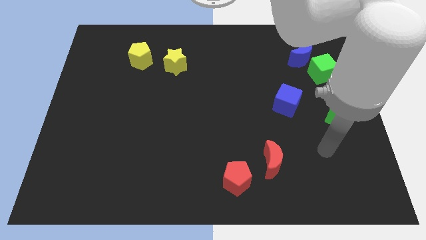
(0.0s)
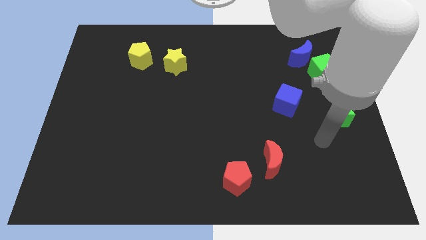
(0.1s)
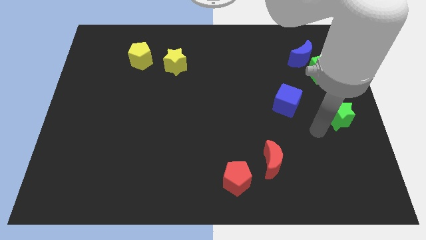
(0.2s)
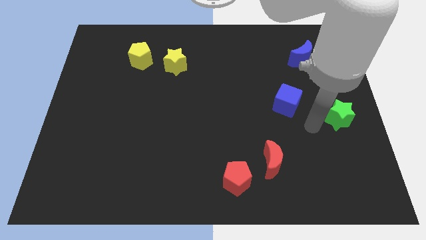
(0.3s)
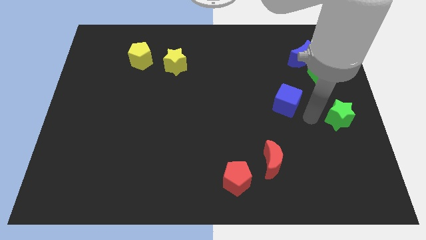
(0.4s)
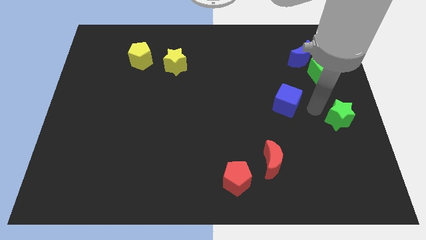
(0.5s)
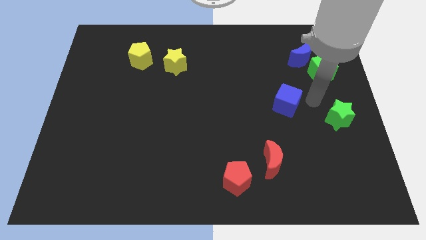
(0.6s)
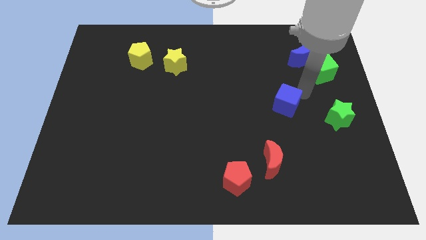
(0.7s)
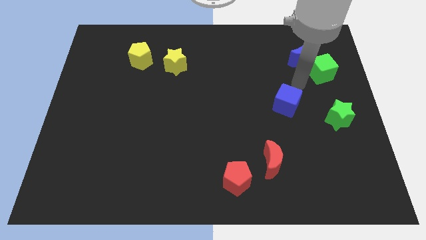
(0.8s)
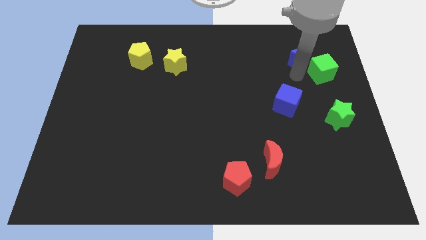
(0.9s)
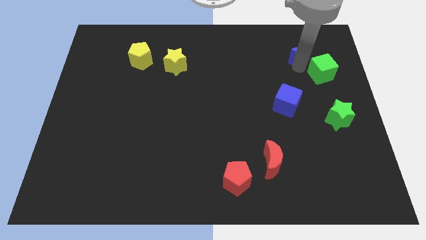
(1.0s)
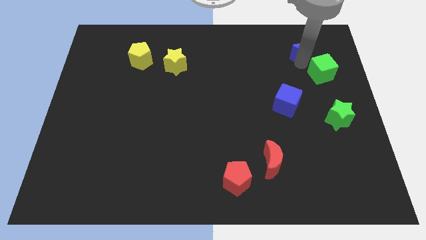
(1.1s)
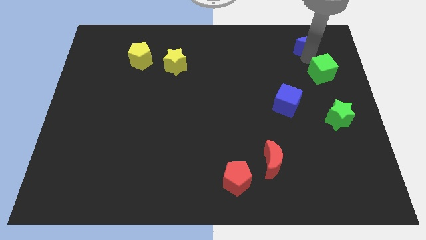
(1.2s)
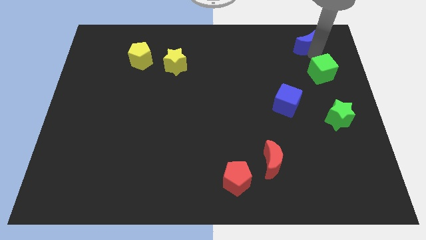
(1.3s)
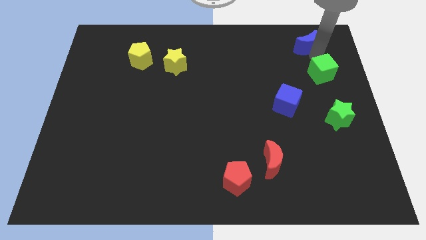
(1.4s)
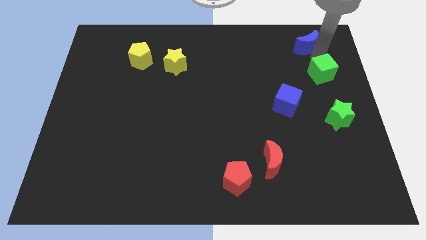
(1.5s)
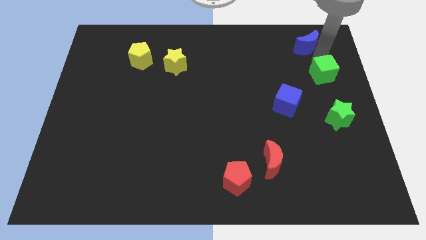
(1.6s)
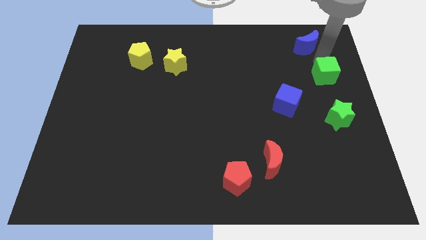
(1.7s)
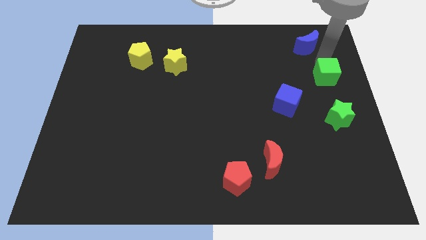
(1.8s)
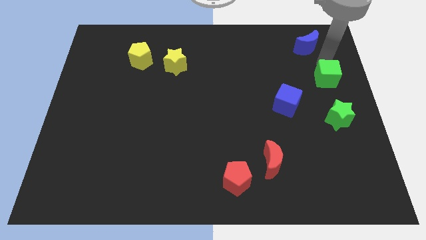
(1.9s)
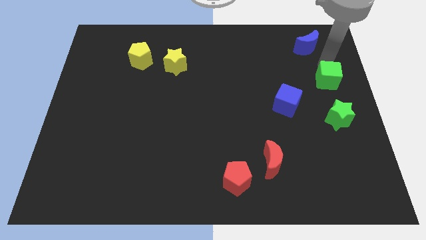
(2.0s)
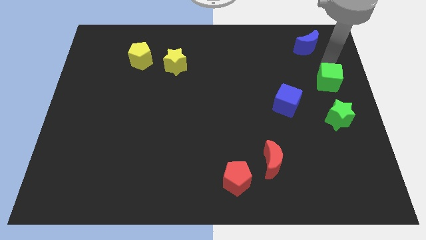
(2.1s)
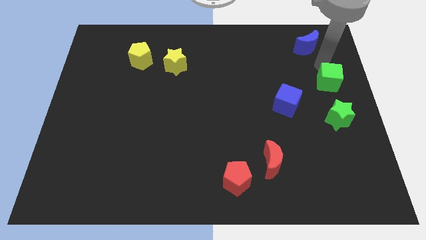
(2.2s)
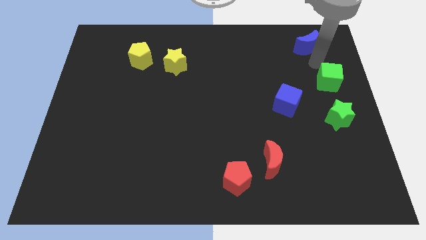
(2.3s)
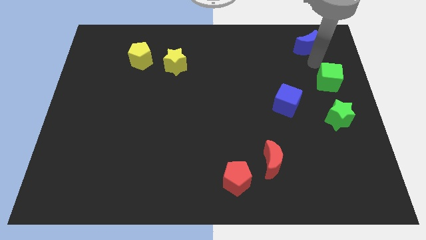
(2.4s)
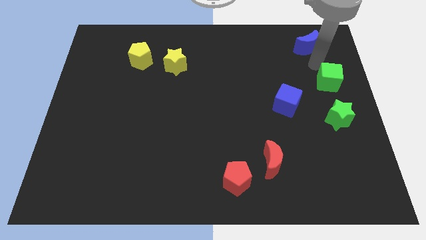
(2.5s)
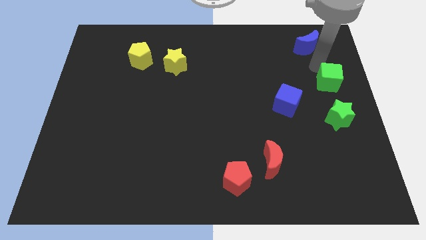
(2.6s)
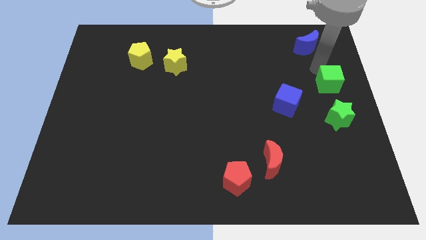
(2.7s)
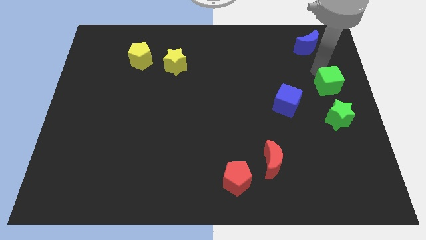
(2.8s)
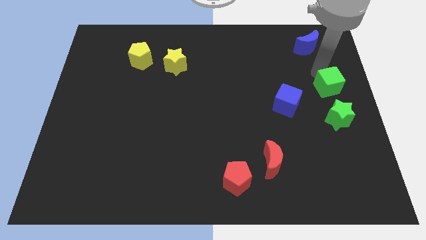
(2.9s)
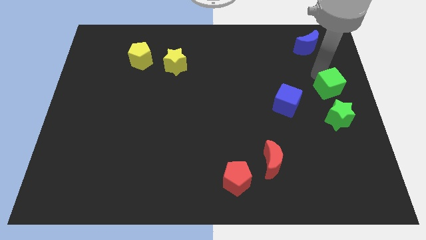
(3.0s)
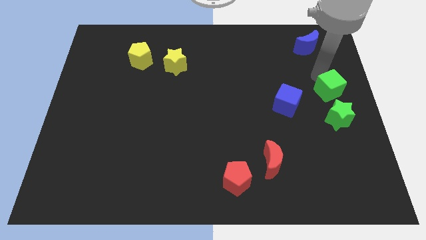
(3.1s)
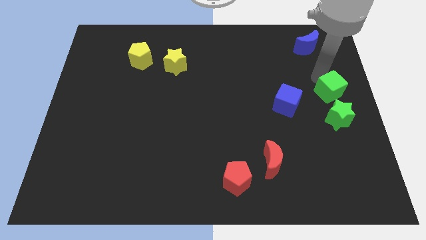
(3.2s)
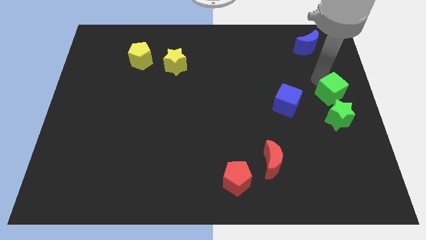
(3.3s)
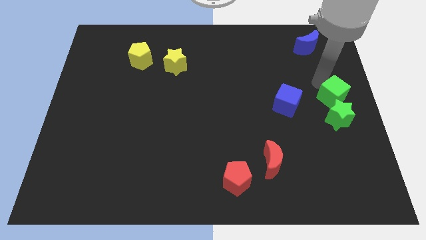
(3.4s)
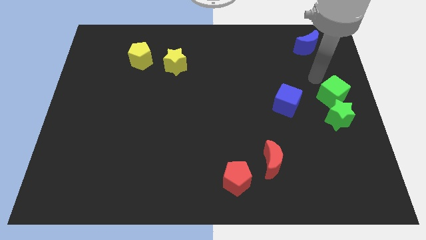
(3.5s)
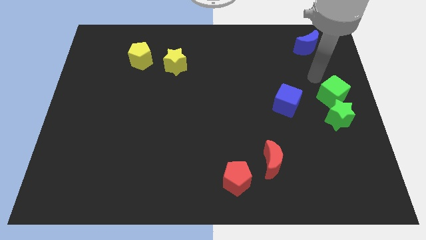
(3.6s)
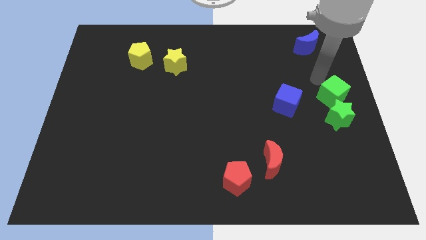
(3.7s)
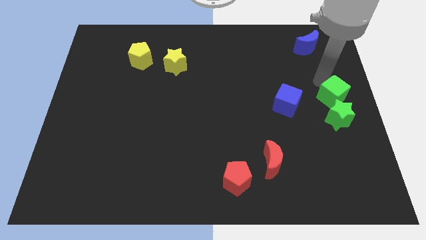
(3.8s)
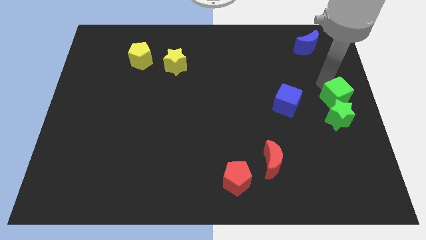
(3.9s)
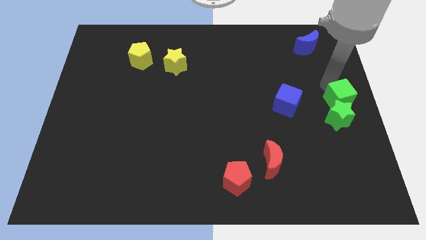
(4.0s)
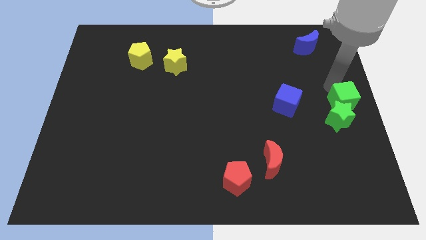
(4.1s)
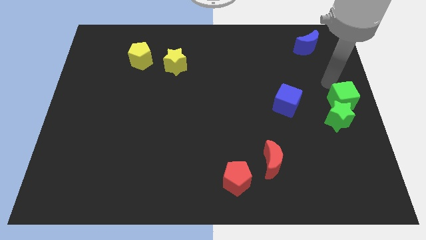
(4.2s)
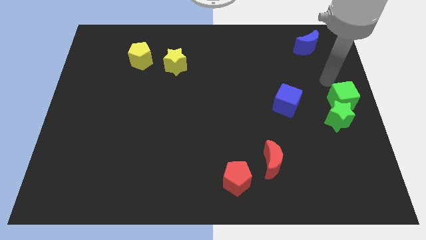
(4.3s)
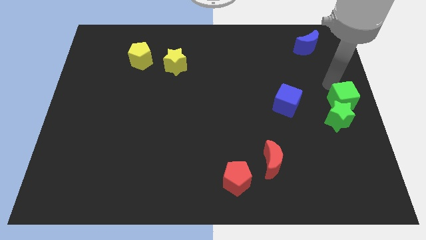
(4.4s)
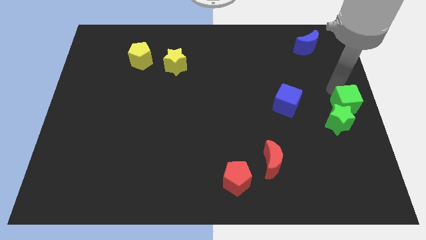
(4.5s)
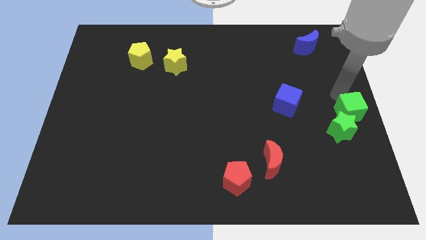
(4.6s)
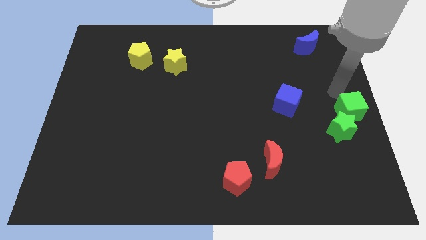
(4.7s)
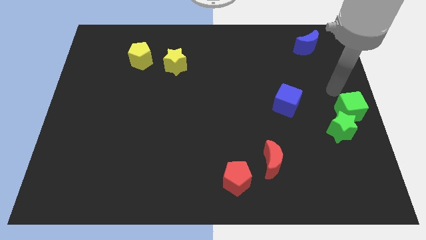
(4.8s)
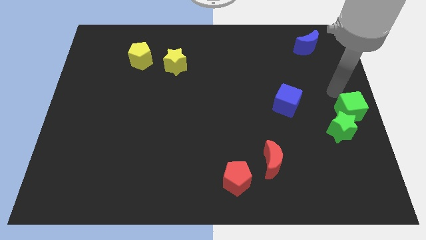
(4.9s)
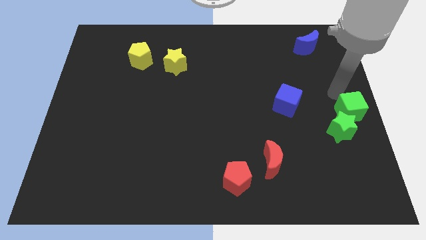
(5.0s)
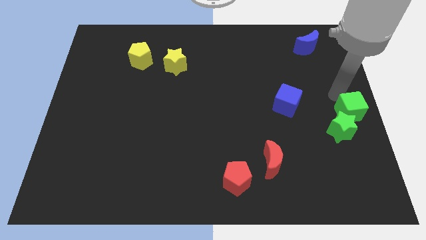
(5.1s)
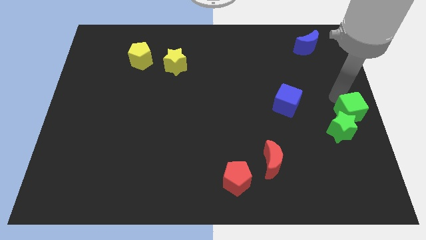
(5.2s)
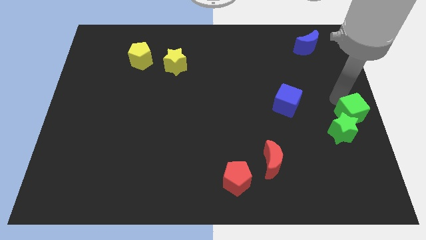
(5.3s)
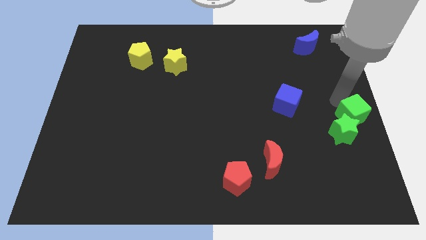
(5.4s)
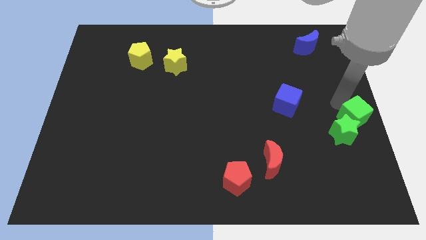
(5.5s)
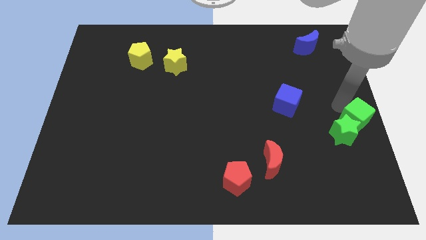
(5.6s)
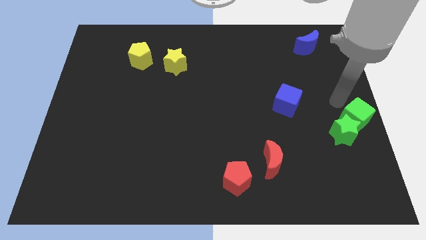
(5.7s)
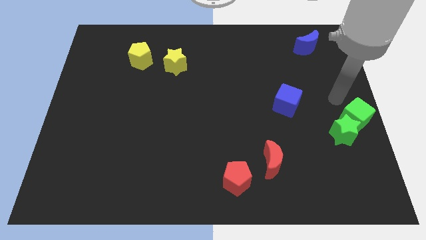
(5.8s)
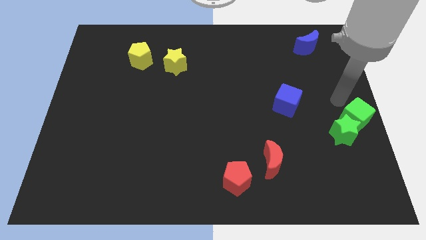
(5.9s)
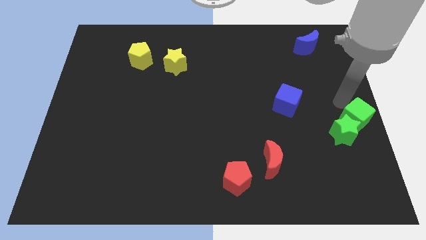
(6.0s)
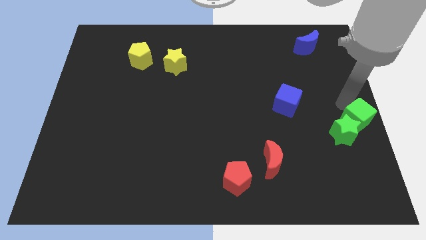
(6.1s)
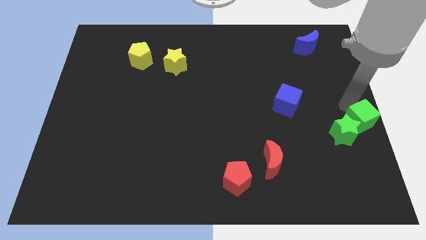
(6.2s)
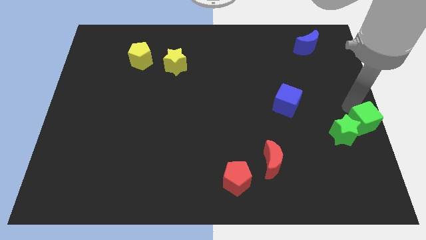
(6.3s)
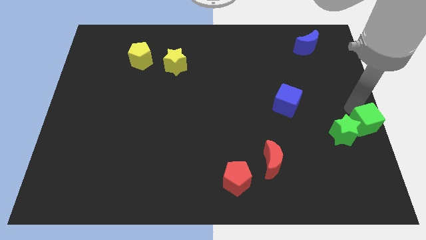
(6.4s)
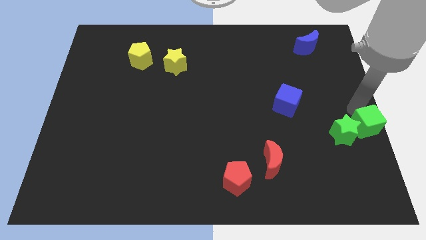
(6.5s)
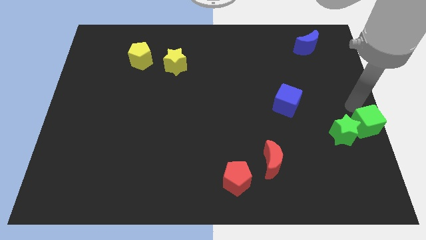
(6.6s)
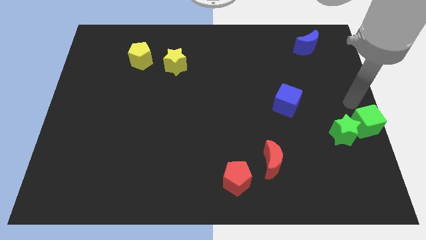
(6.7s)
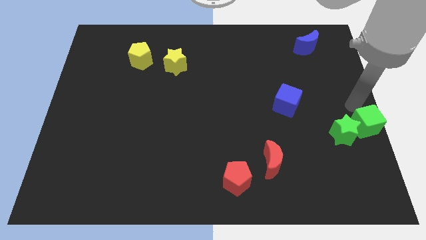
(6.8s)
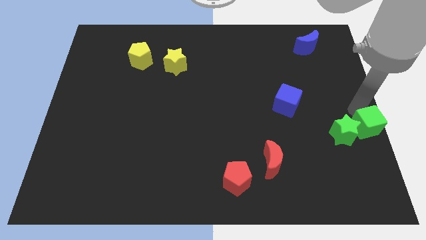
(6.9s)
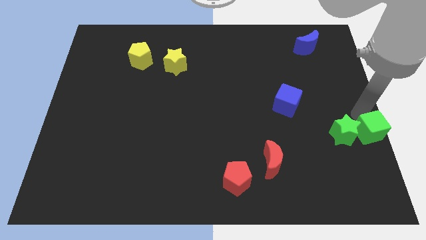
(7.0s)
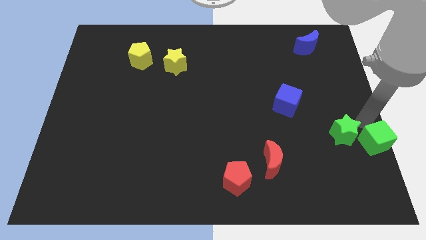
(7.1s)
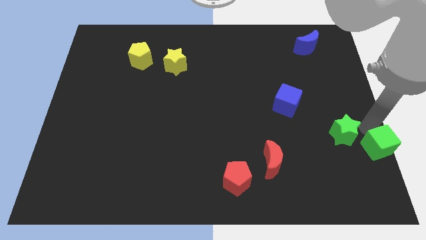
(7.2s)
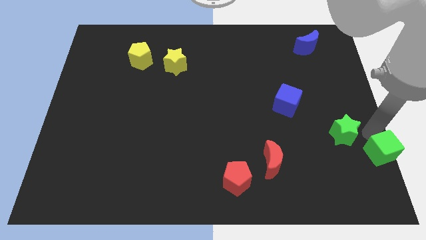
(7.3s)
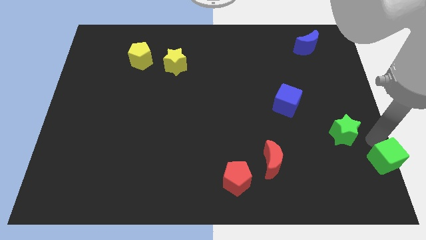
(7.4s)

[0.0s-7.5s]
move the green cube to the bottom right corner
